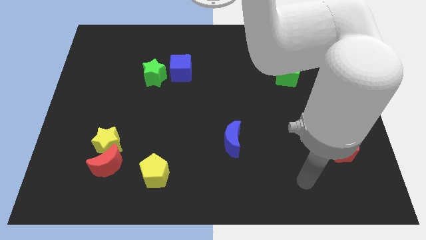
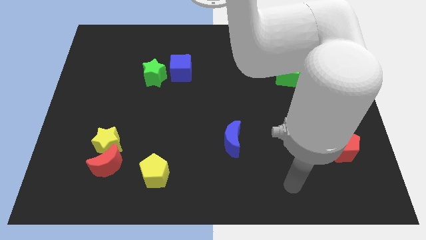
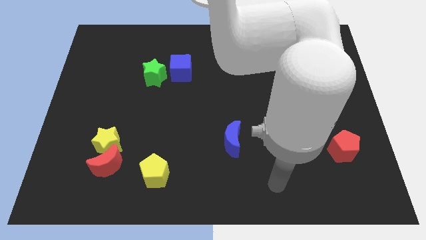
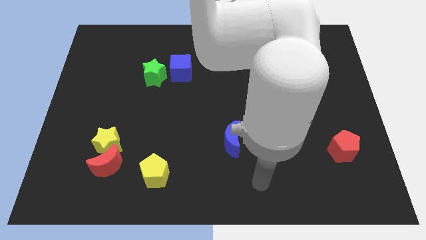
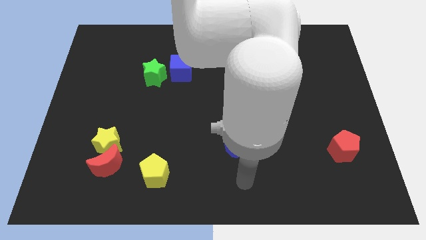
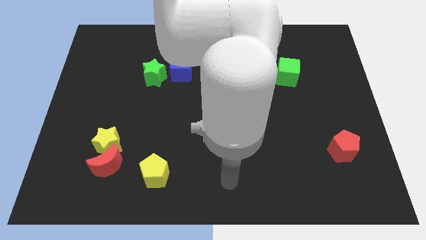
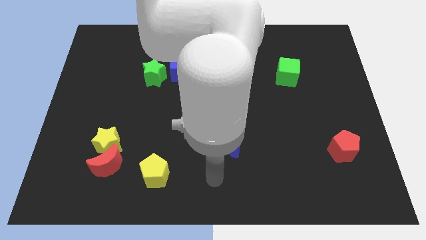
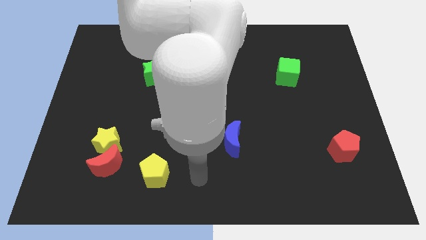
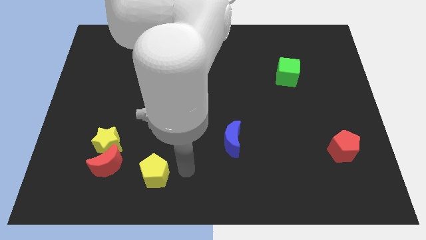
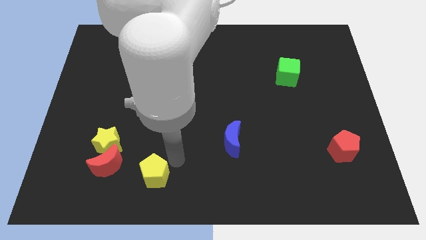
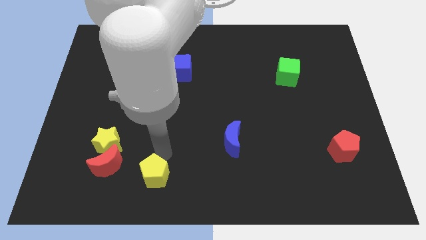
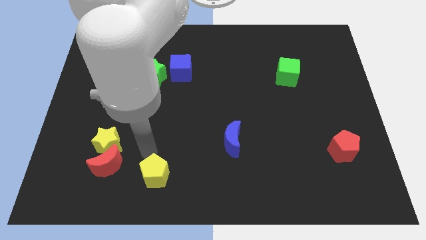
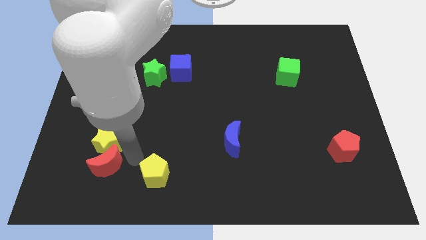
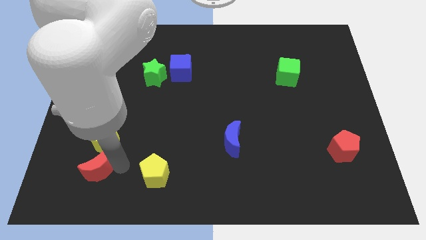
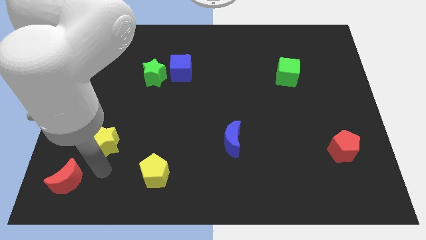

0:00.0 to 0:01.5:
pull the yellow star apart from the red moon

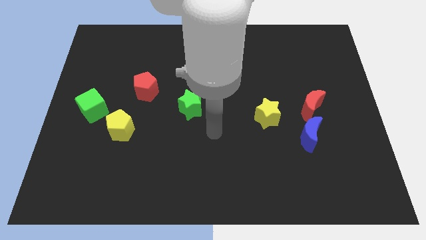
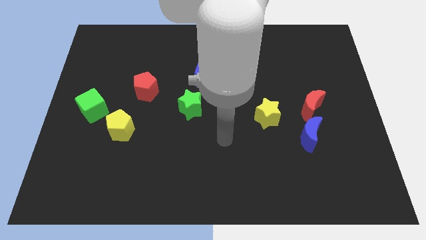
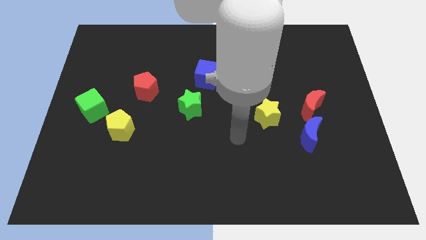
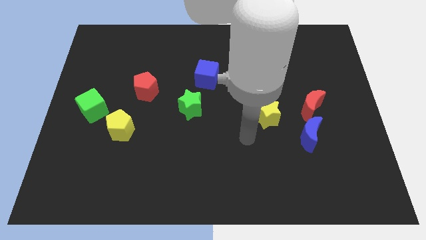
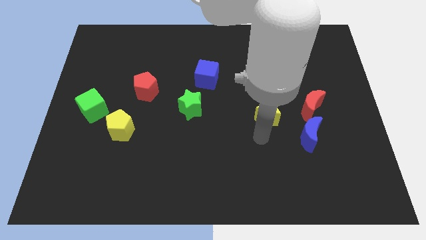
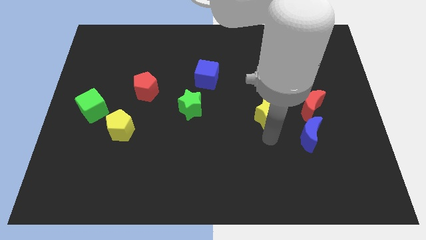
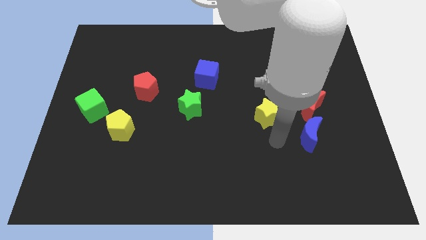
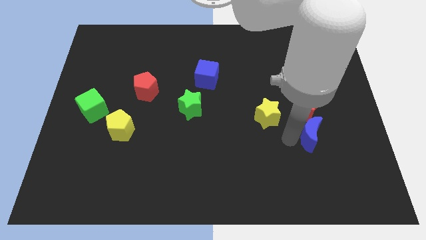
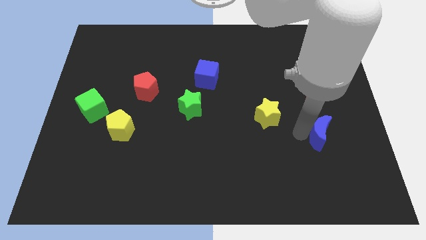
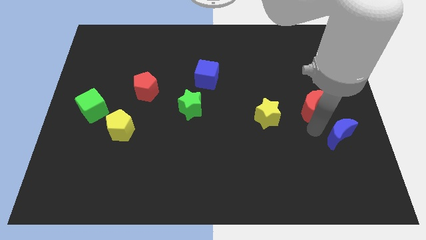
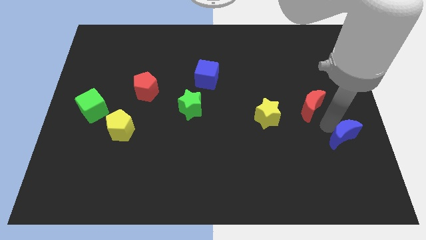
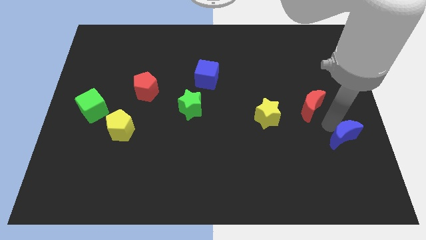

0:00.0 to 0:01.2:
separate the red moon from the blue moon

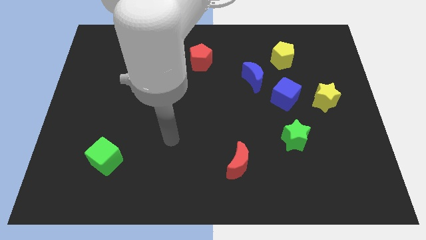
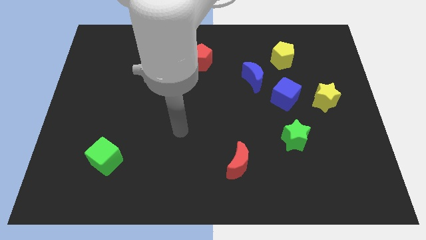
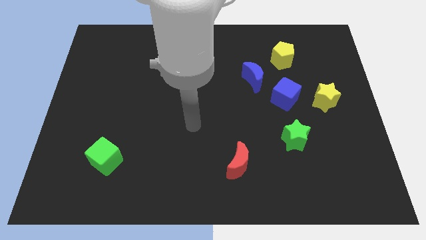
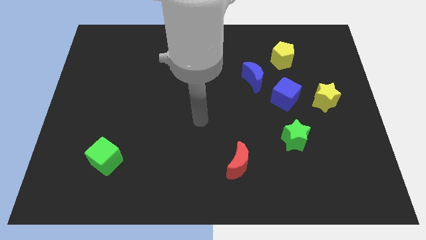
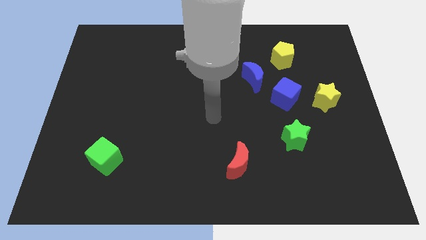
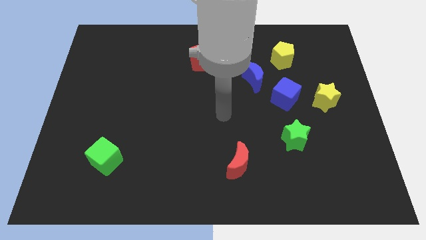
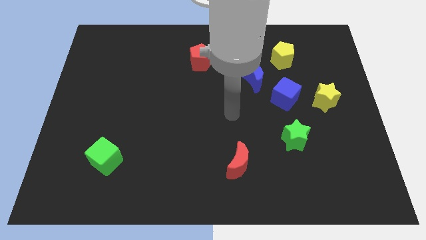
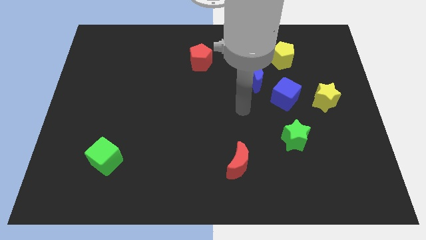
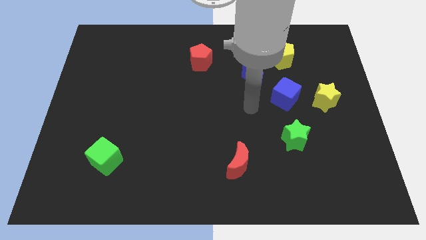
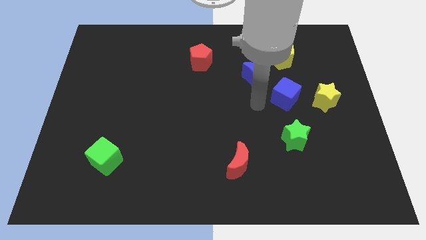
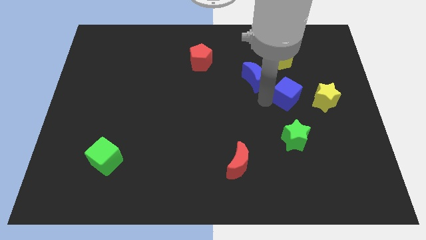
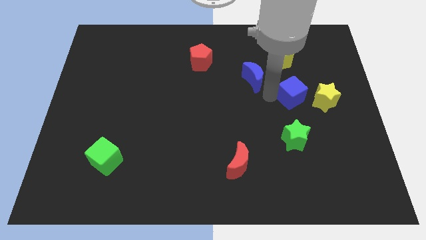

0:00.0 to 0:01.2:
pull the blue moon apart from the blue cube

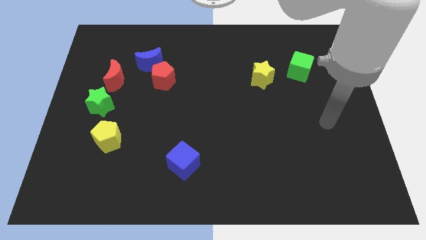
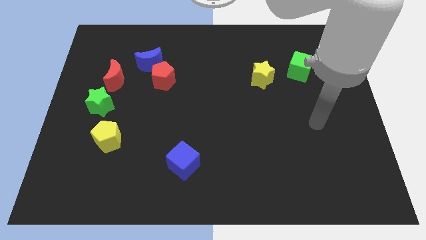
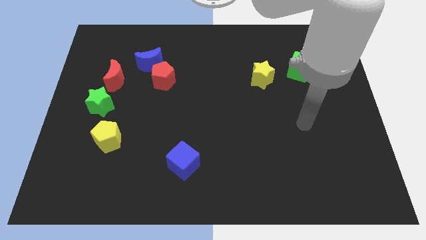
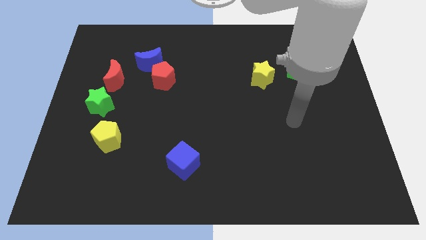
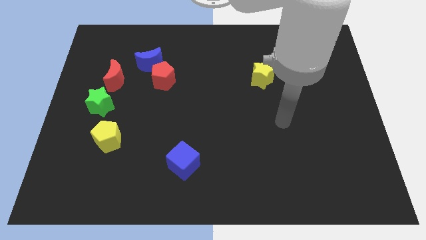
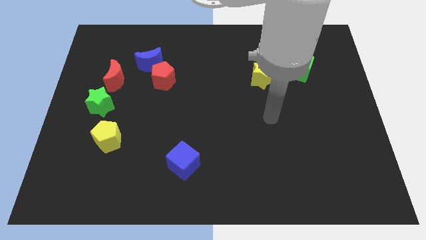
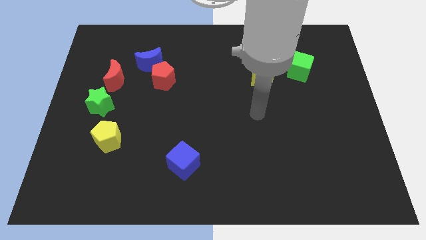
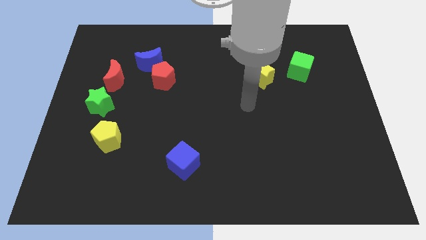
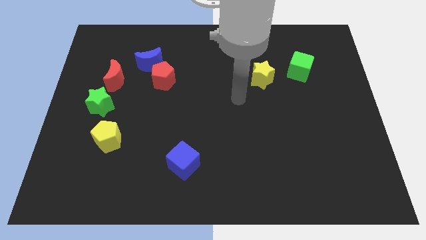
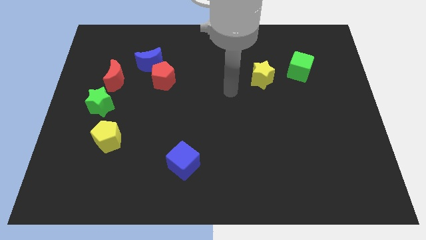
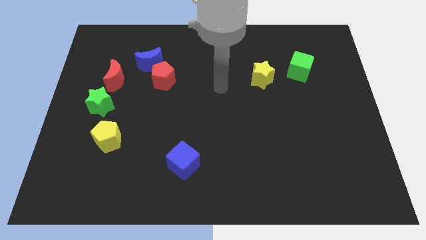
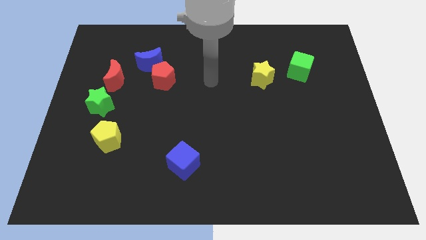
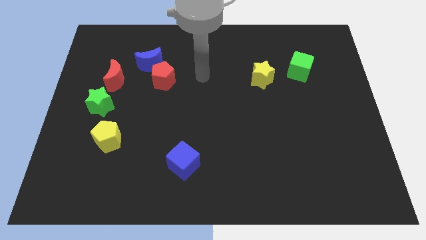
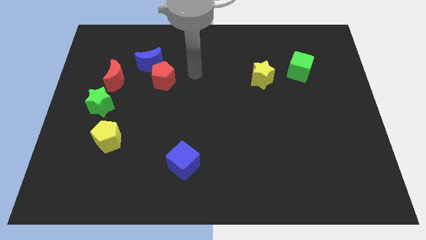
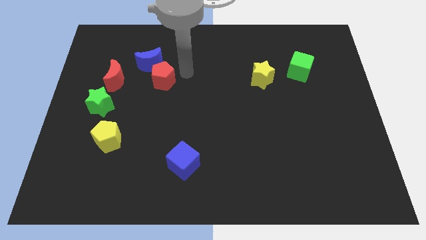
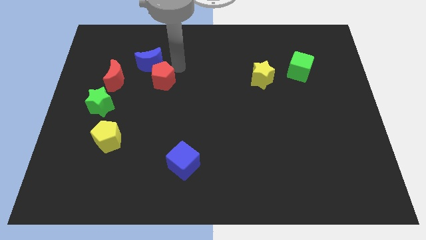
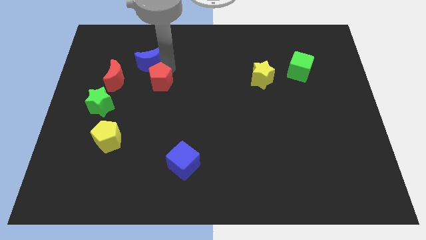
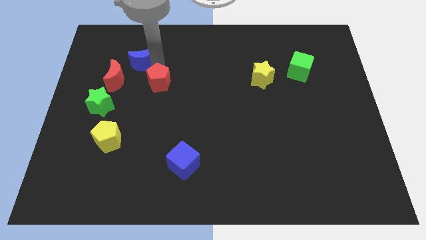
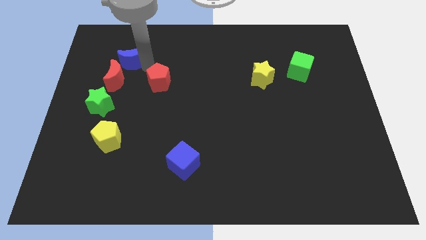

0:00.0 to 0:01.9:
move the red pentagon away from the blue moon

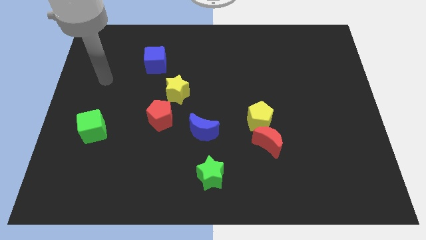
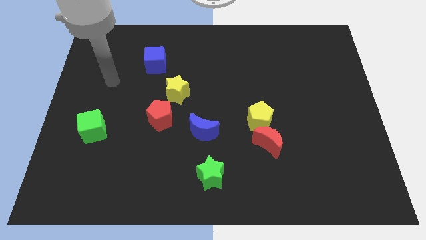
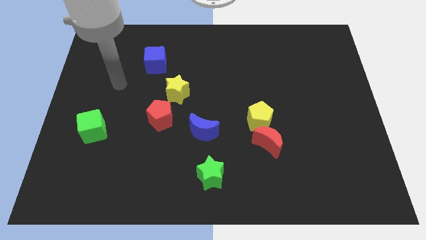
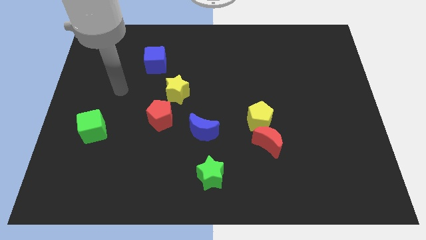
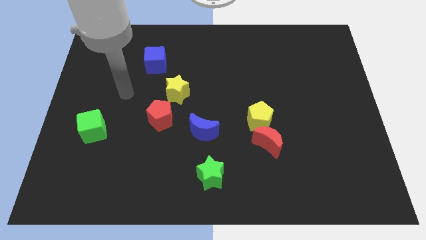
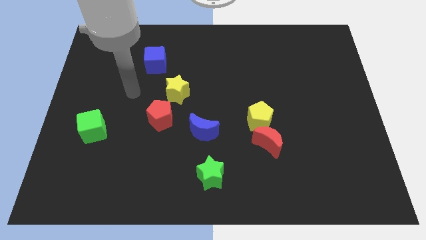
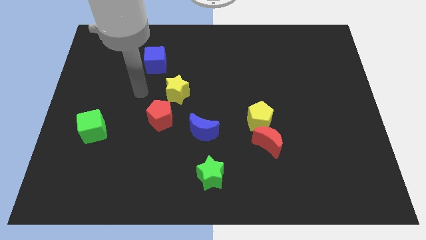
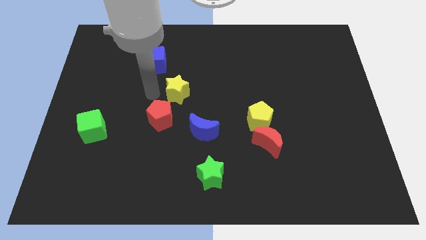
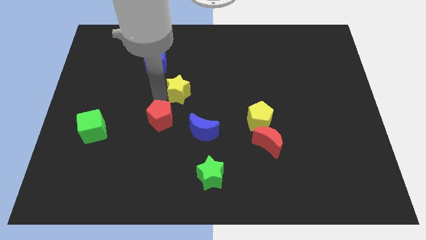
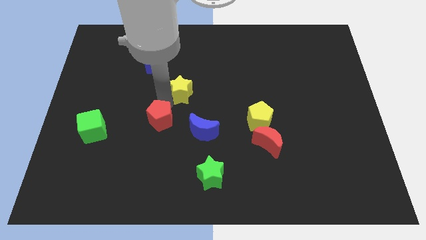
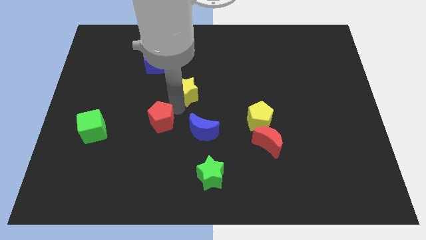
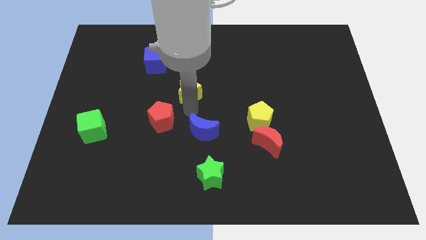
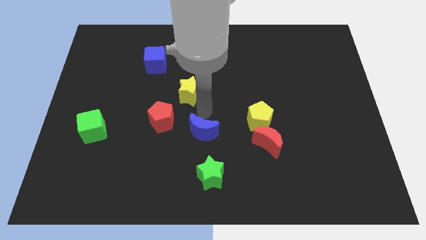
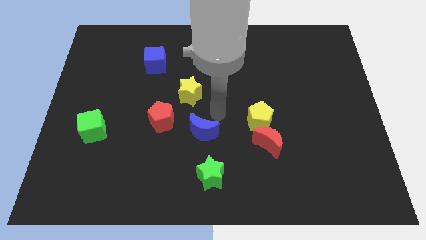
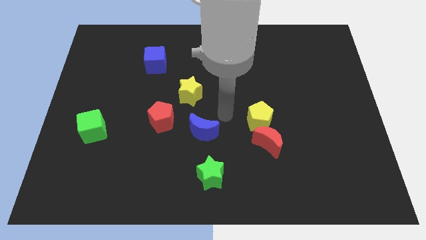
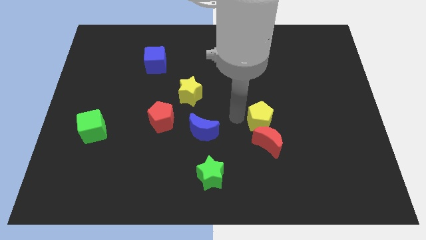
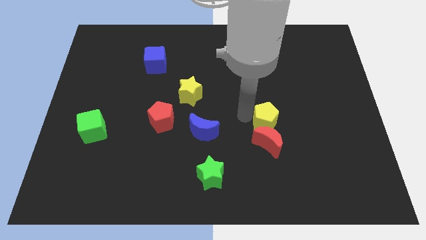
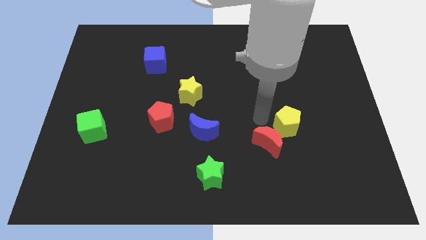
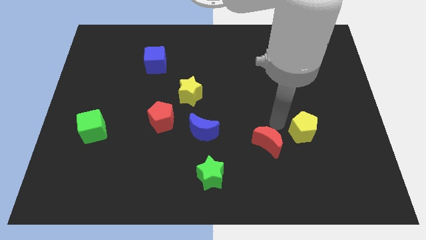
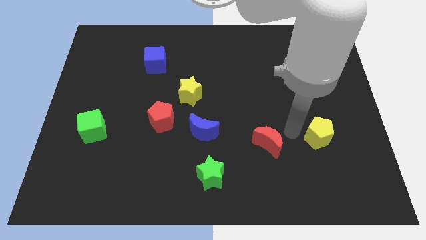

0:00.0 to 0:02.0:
move the red moon away from the yellow pentagon

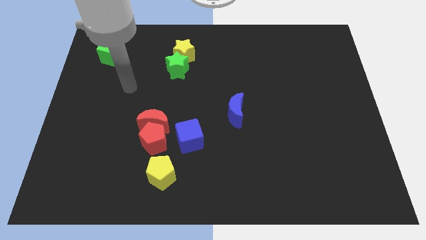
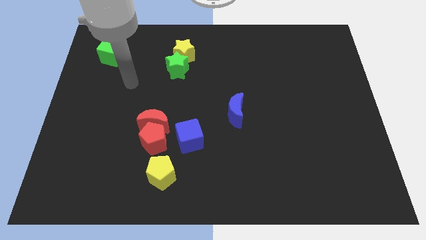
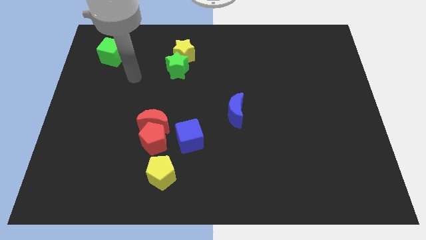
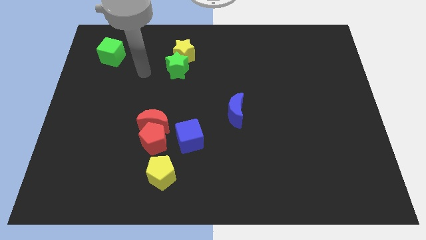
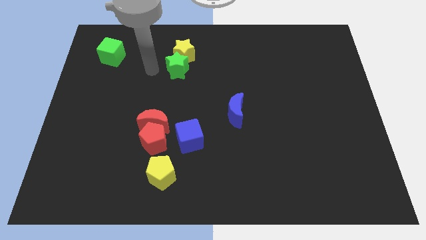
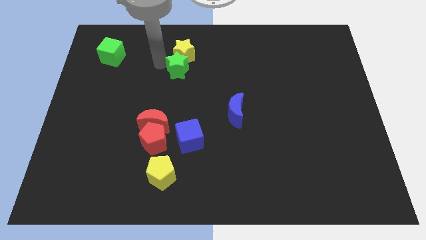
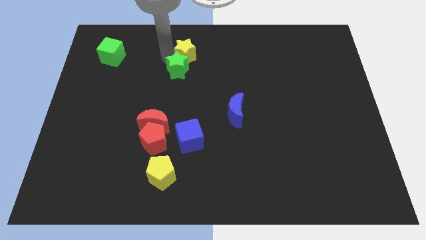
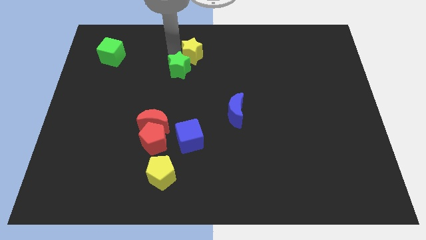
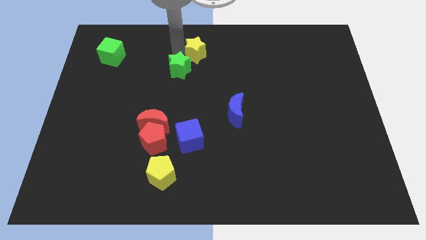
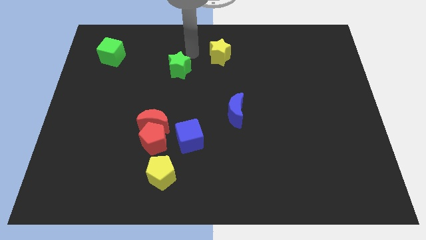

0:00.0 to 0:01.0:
separate the green star from the yellow star

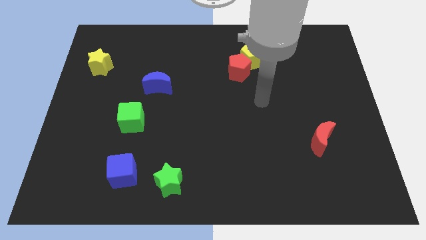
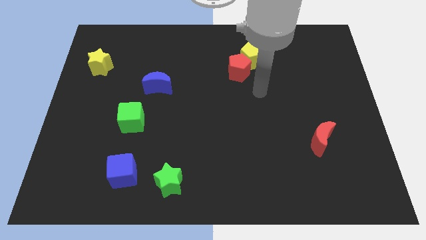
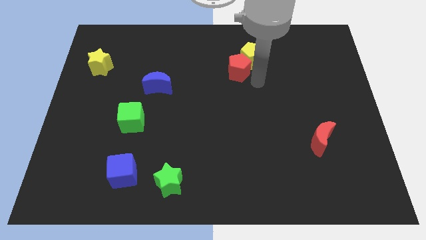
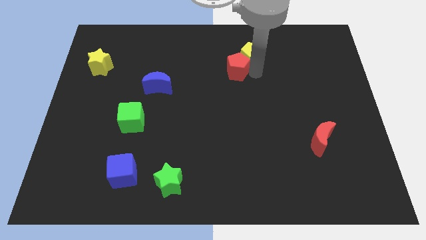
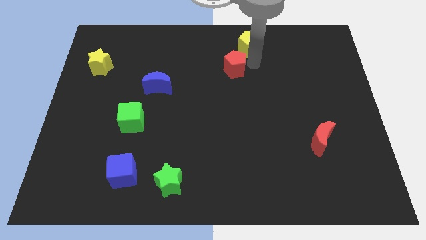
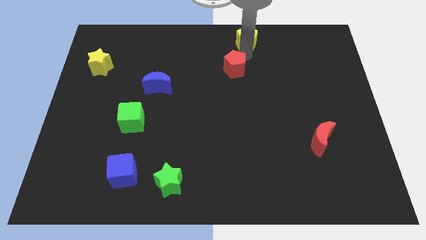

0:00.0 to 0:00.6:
pull the red pentagon apart from the yellow pentagon
